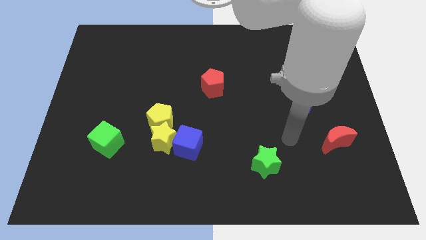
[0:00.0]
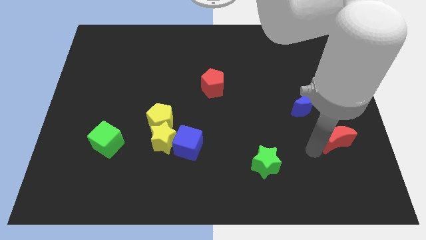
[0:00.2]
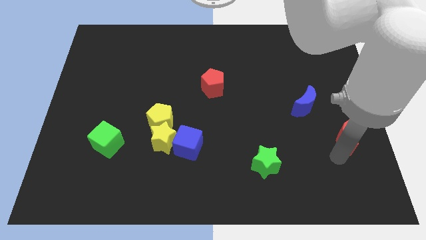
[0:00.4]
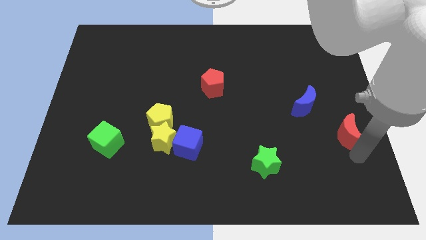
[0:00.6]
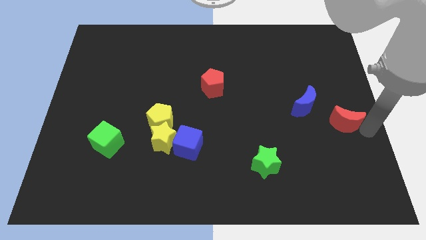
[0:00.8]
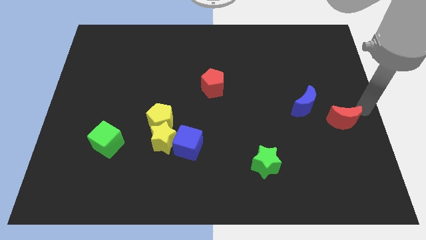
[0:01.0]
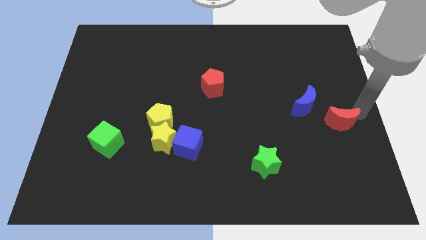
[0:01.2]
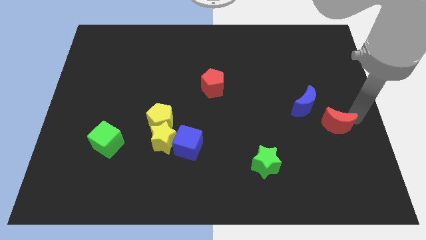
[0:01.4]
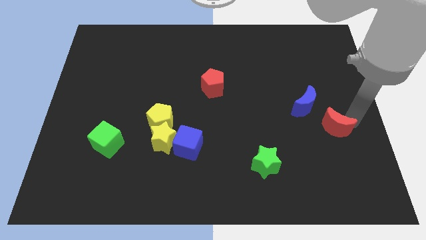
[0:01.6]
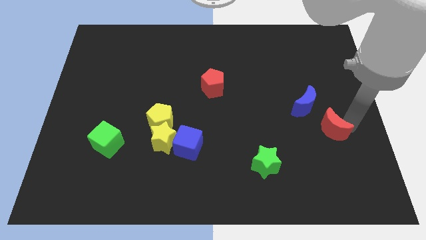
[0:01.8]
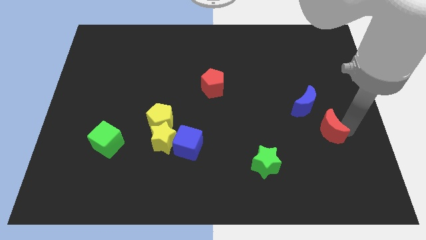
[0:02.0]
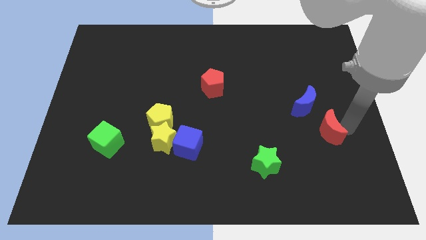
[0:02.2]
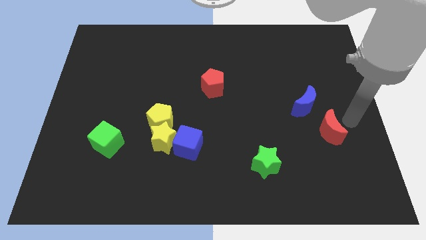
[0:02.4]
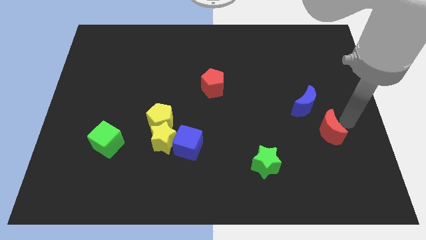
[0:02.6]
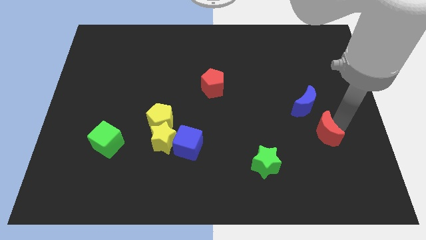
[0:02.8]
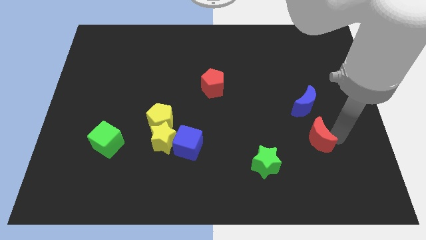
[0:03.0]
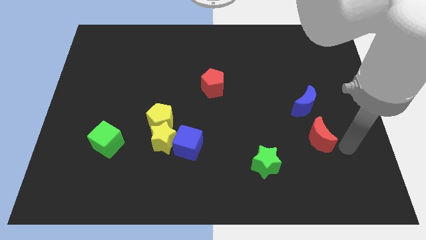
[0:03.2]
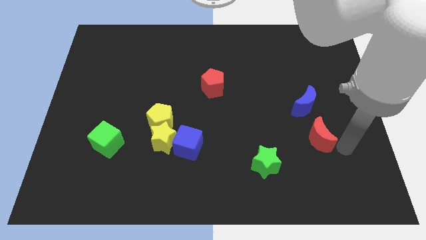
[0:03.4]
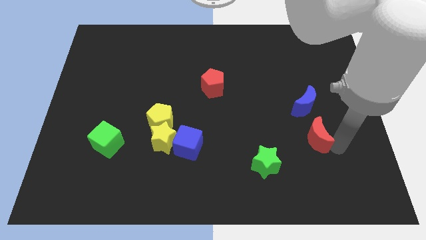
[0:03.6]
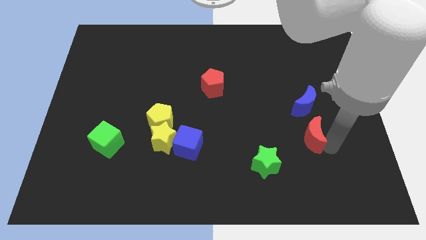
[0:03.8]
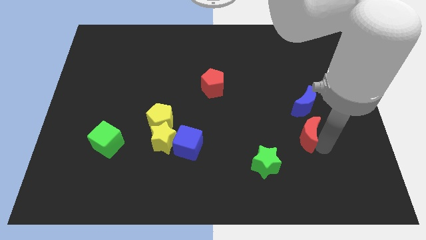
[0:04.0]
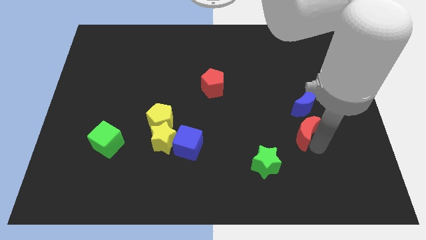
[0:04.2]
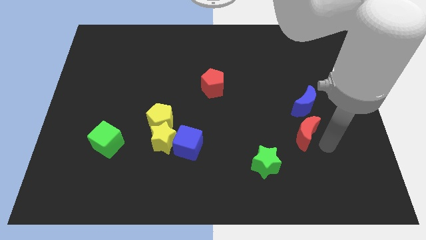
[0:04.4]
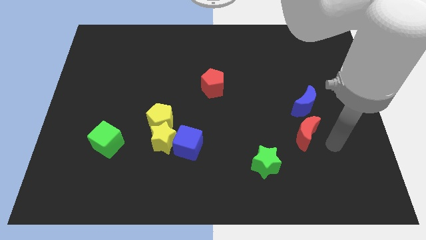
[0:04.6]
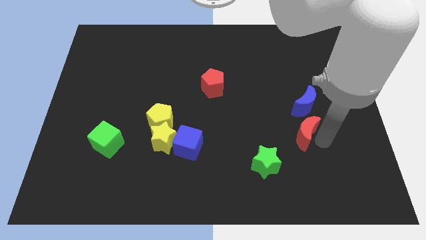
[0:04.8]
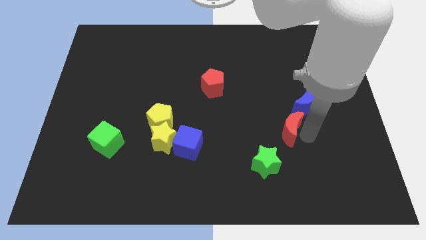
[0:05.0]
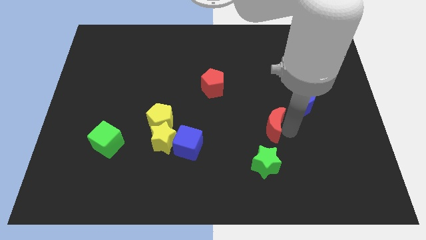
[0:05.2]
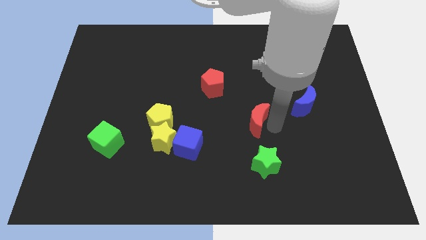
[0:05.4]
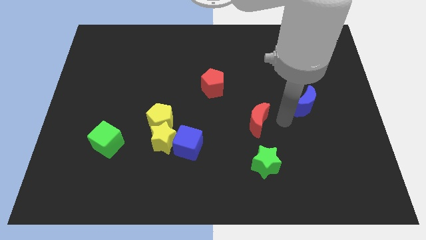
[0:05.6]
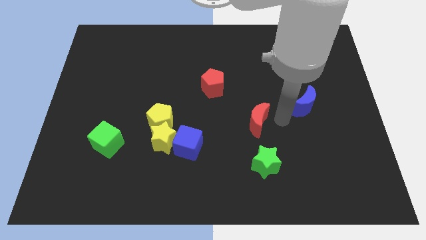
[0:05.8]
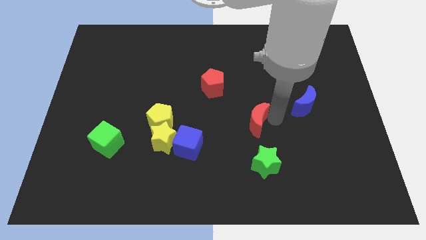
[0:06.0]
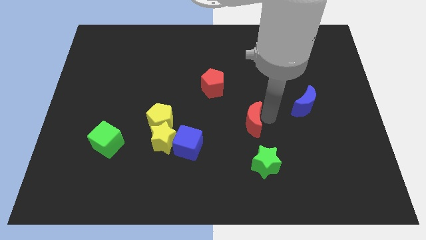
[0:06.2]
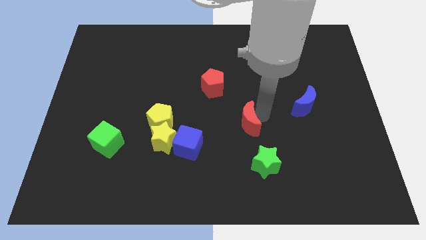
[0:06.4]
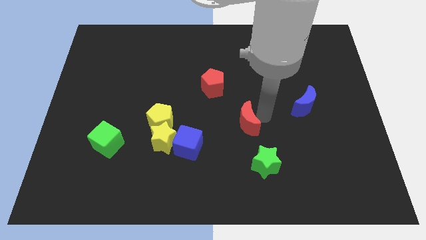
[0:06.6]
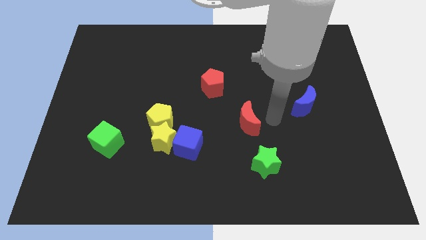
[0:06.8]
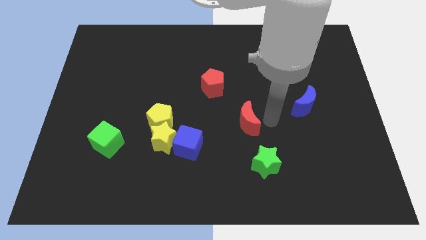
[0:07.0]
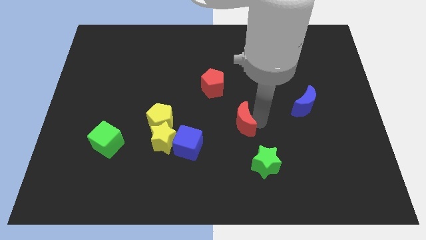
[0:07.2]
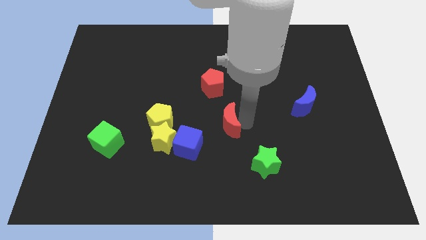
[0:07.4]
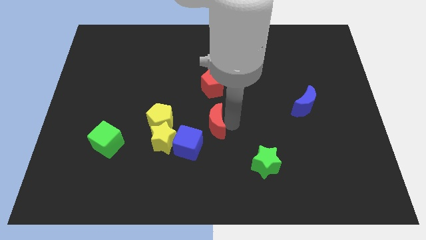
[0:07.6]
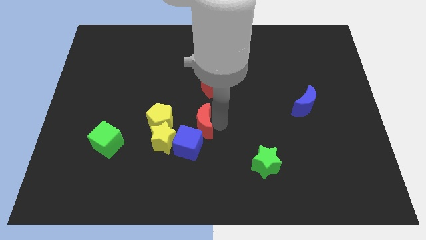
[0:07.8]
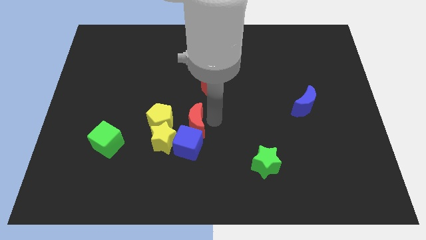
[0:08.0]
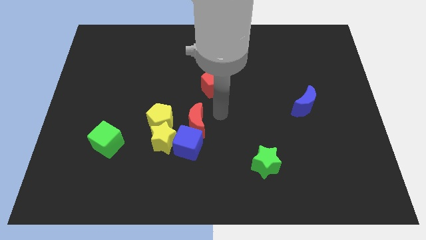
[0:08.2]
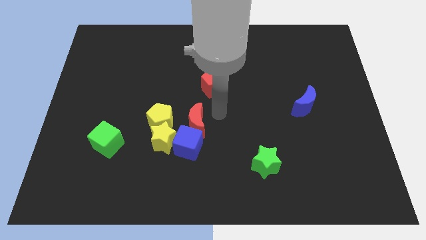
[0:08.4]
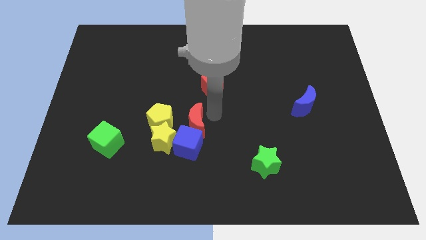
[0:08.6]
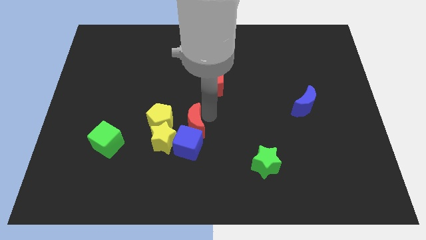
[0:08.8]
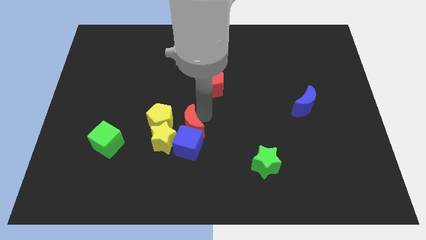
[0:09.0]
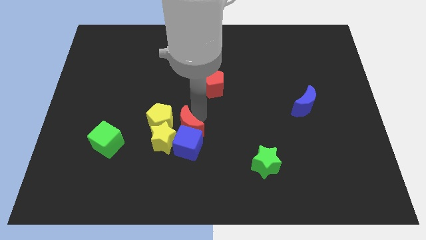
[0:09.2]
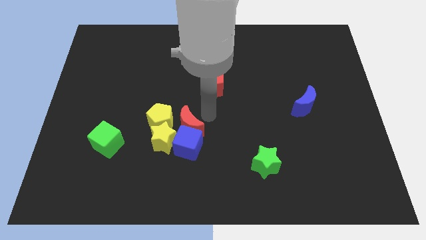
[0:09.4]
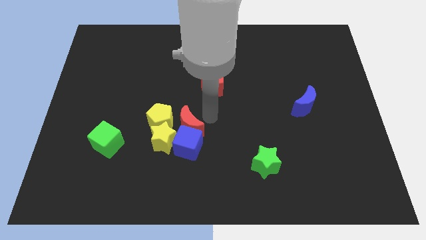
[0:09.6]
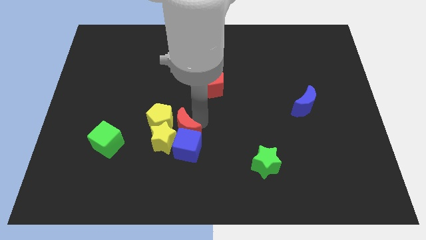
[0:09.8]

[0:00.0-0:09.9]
slide the red moon towards the yellow star

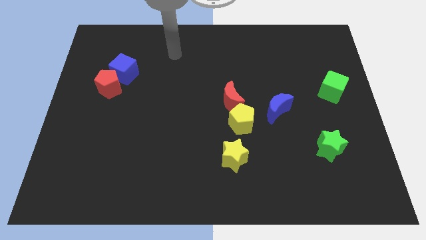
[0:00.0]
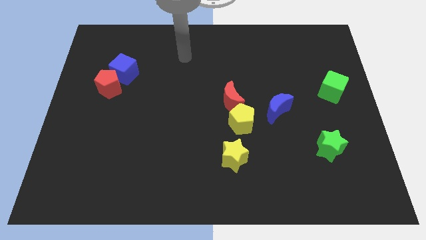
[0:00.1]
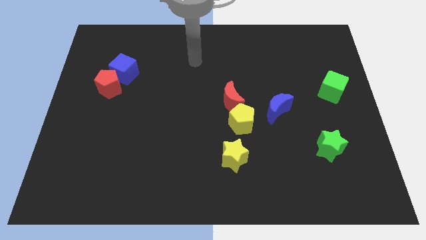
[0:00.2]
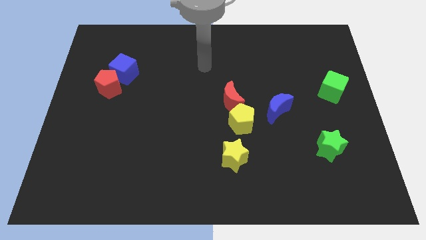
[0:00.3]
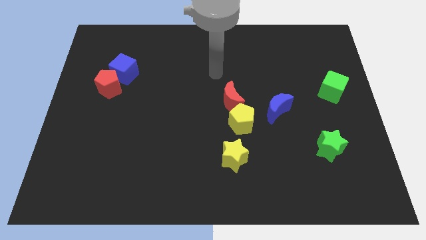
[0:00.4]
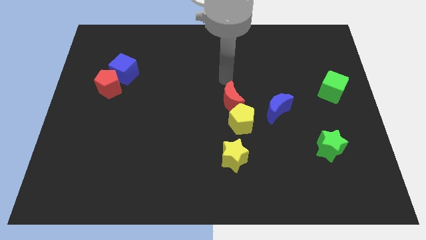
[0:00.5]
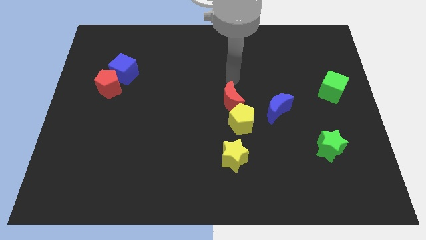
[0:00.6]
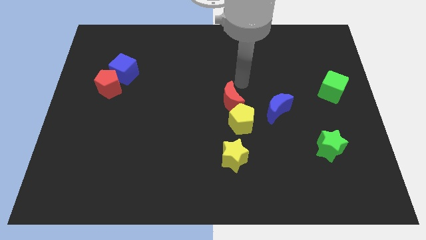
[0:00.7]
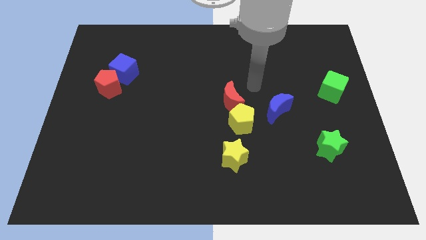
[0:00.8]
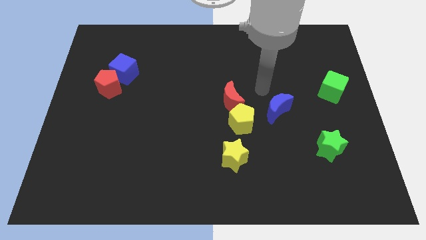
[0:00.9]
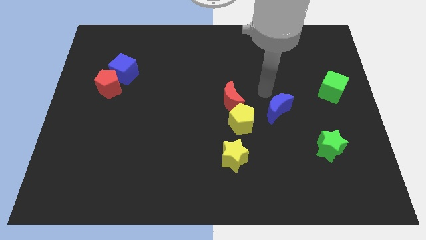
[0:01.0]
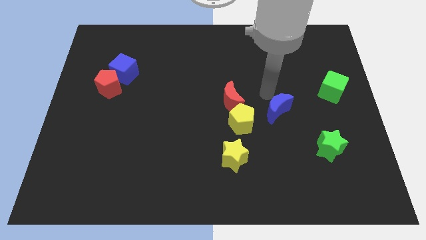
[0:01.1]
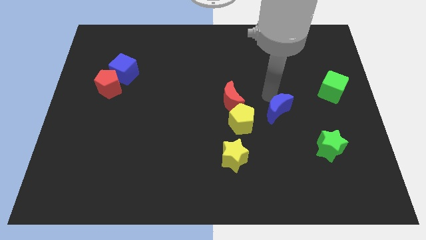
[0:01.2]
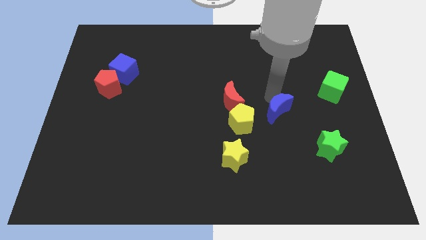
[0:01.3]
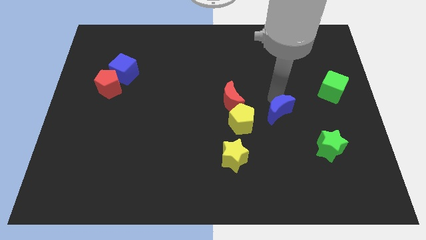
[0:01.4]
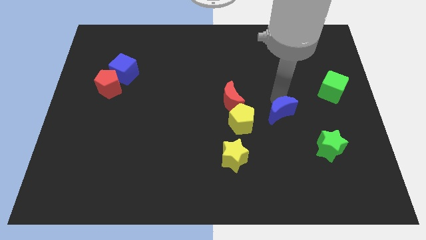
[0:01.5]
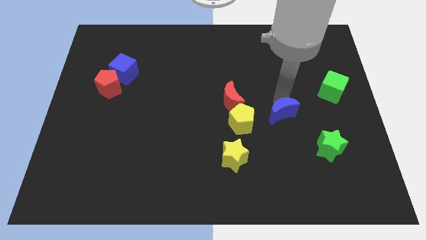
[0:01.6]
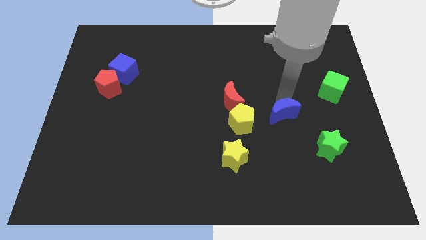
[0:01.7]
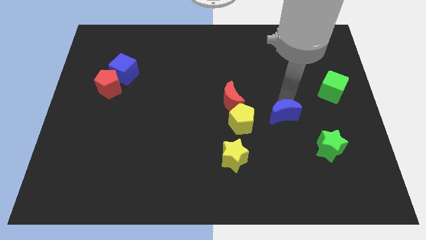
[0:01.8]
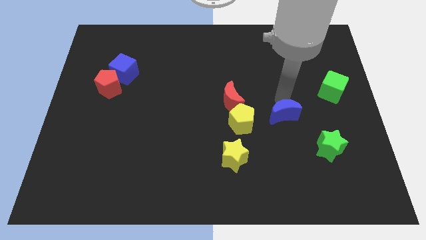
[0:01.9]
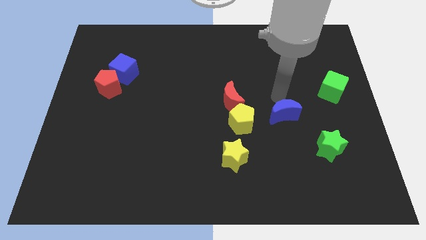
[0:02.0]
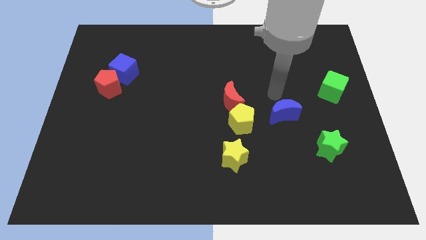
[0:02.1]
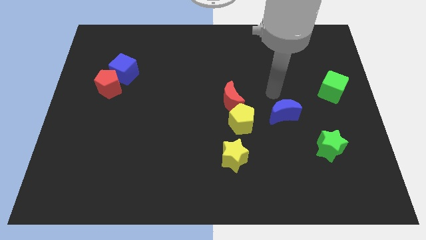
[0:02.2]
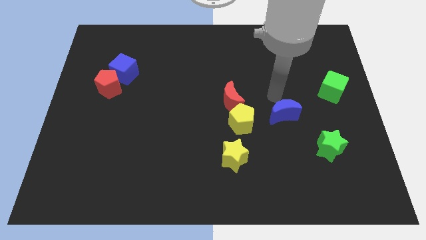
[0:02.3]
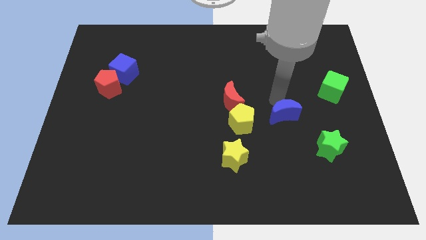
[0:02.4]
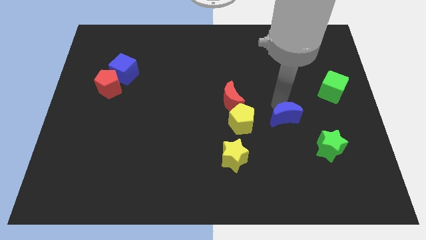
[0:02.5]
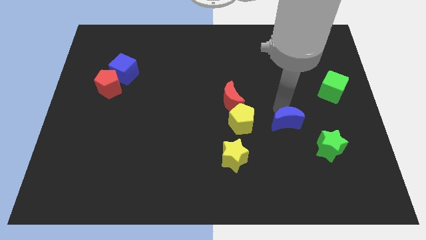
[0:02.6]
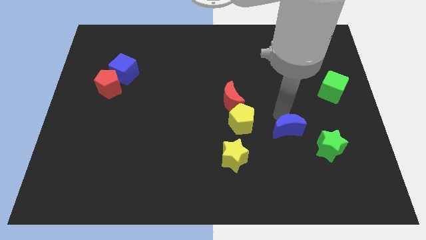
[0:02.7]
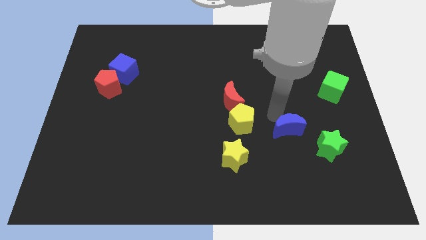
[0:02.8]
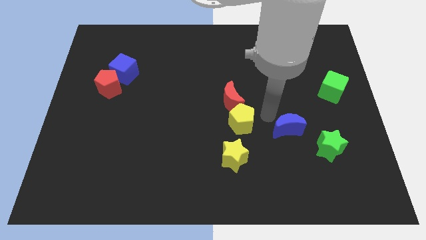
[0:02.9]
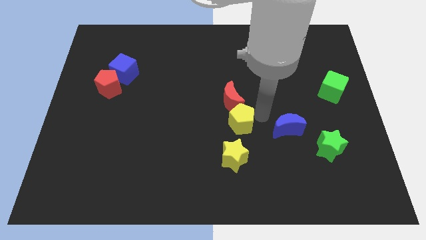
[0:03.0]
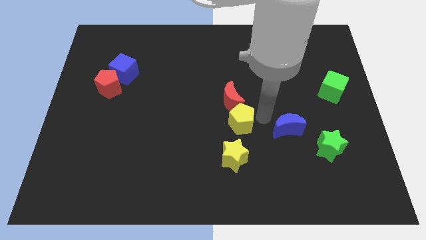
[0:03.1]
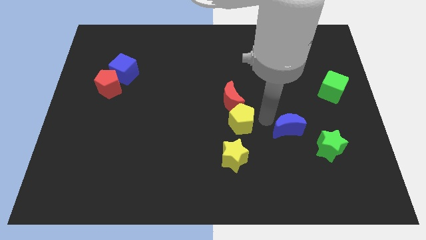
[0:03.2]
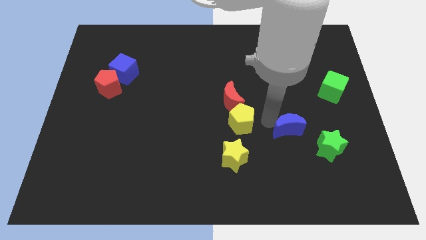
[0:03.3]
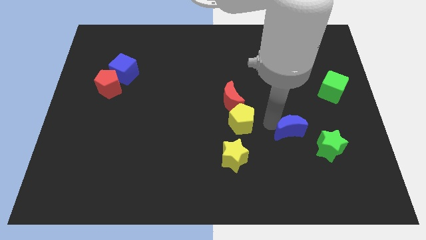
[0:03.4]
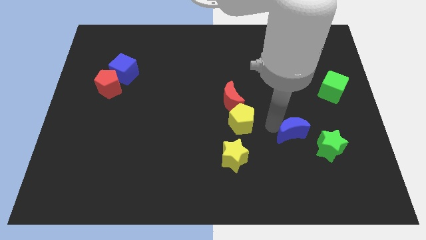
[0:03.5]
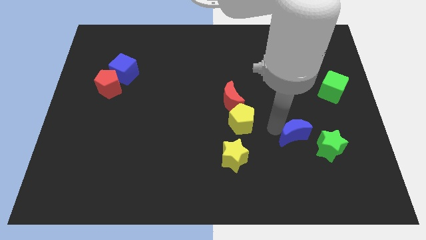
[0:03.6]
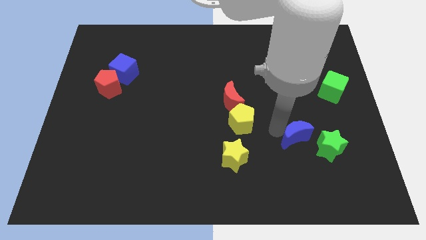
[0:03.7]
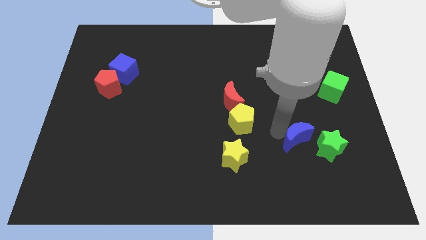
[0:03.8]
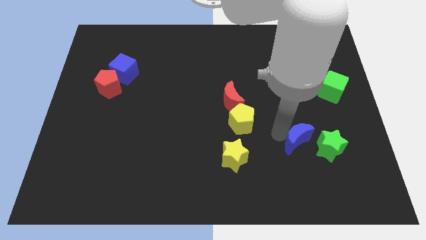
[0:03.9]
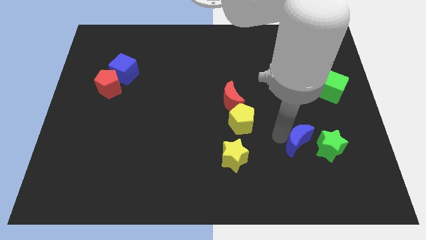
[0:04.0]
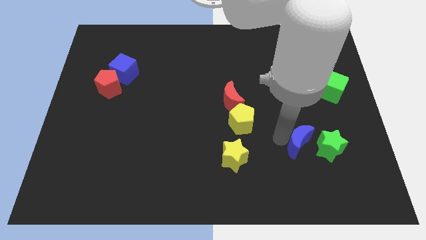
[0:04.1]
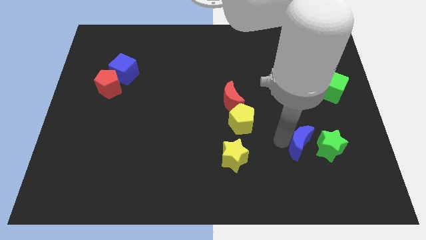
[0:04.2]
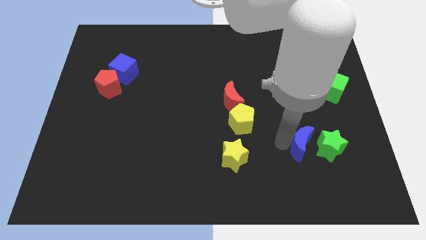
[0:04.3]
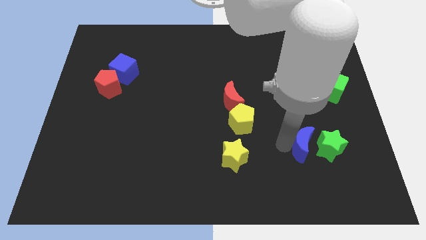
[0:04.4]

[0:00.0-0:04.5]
push the blue moon towards the green star
